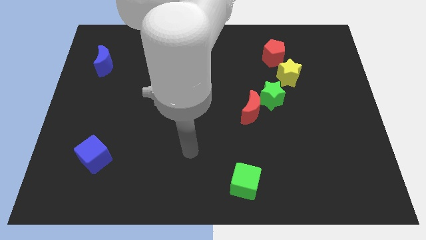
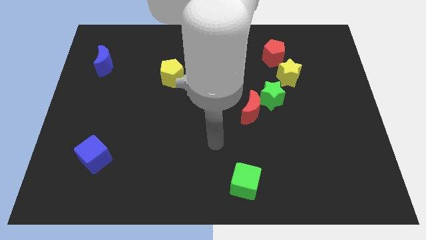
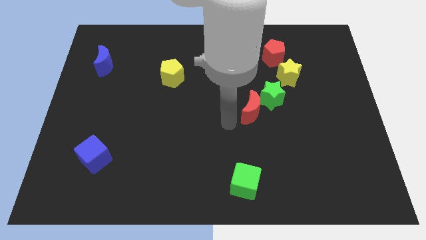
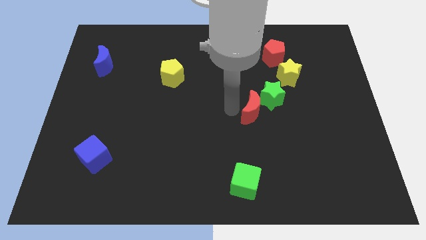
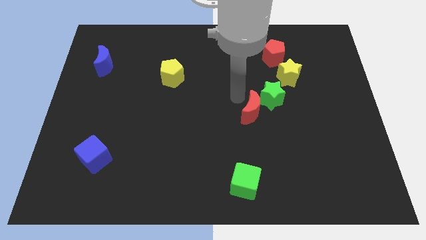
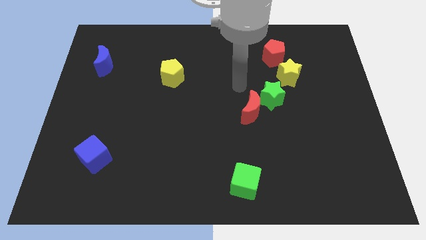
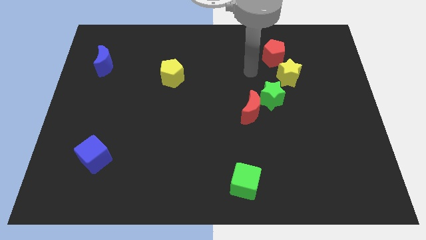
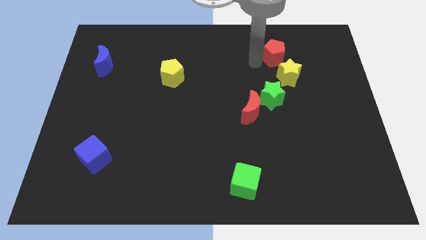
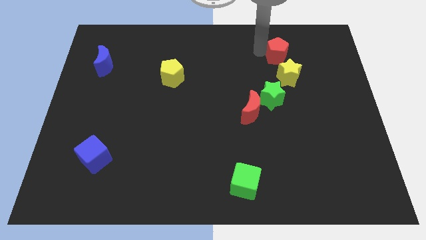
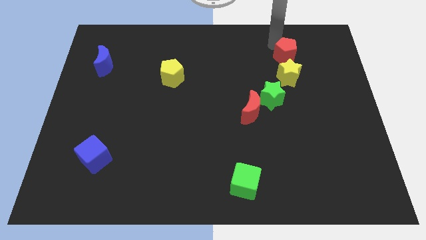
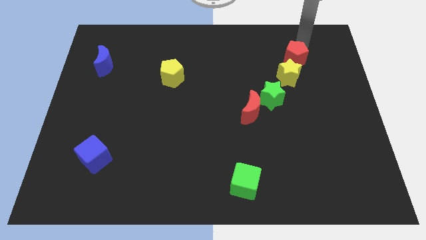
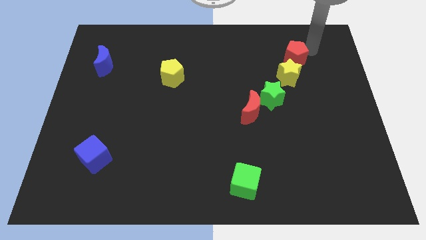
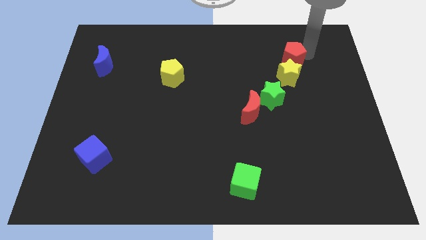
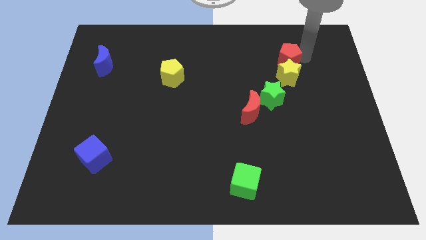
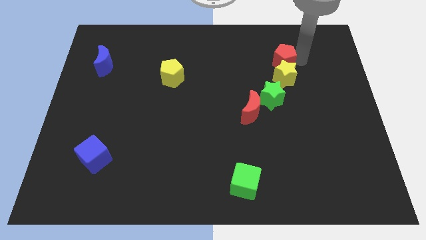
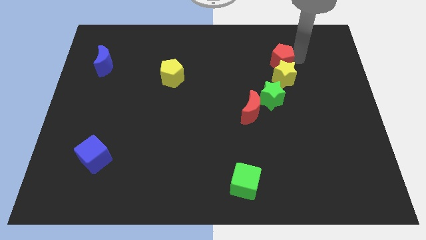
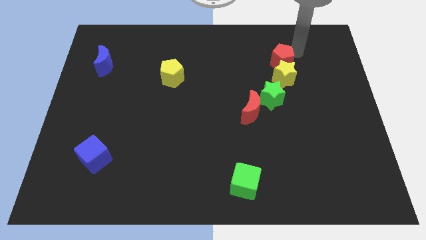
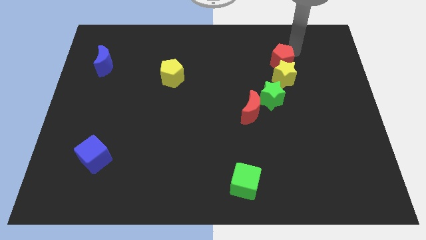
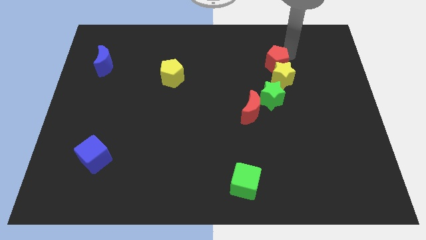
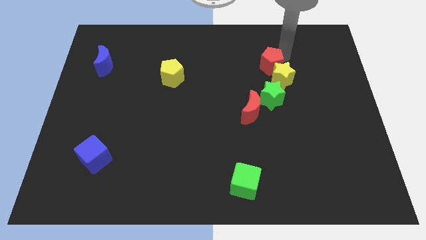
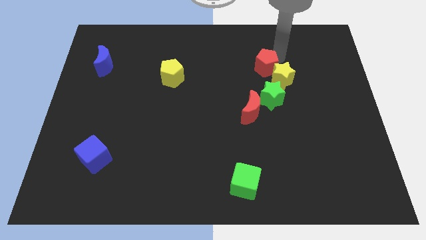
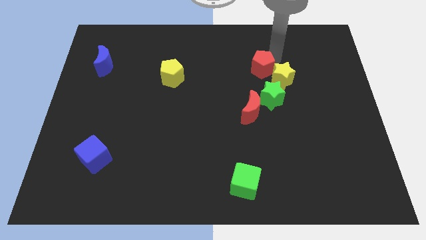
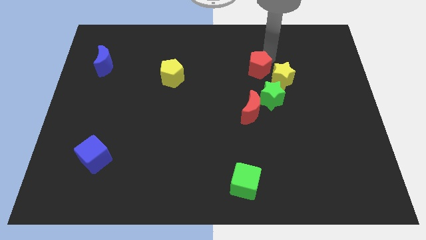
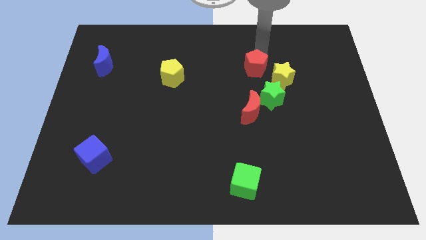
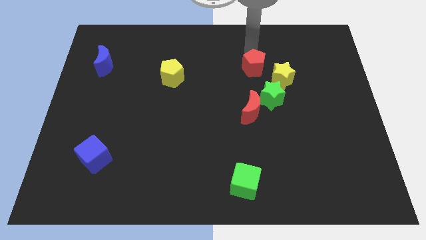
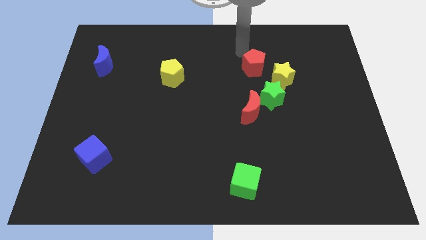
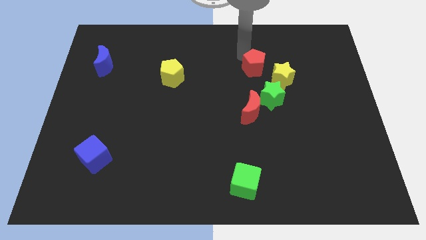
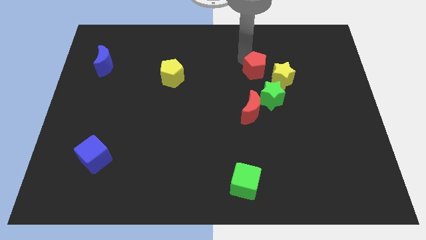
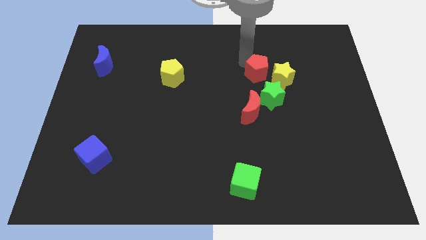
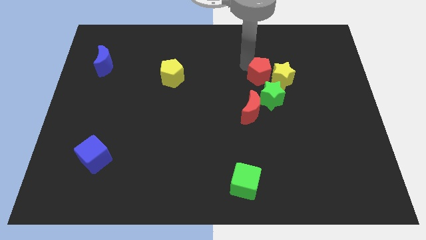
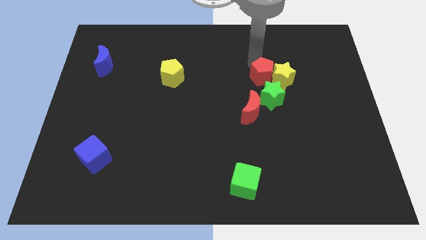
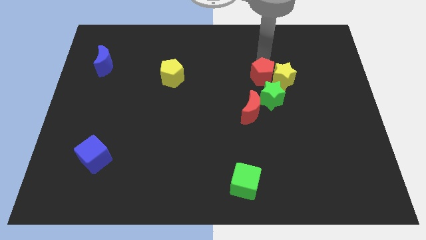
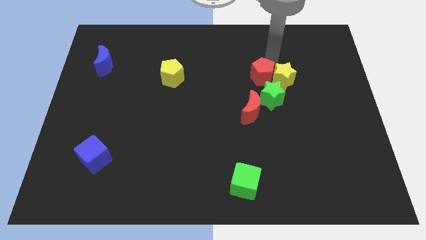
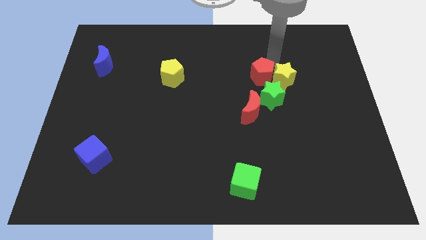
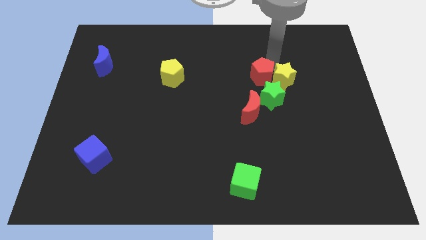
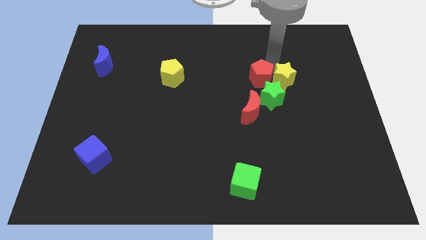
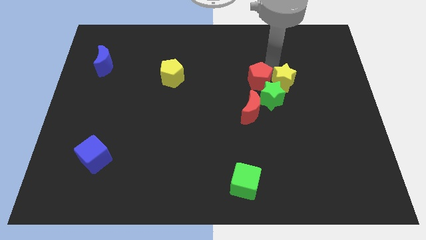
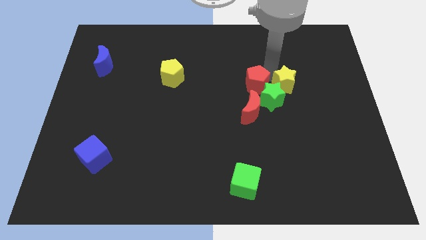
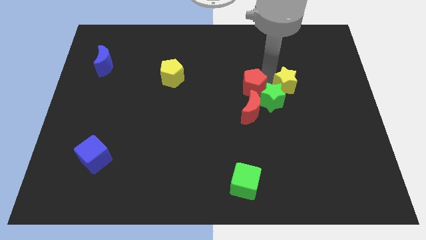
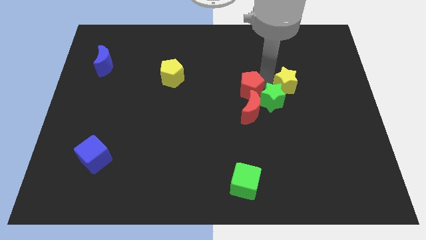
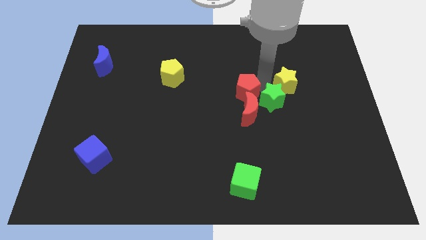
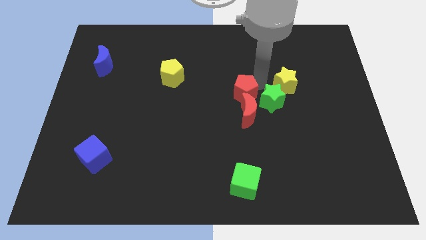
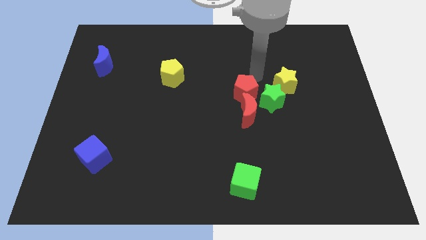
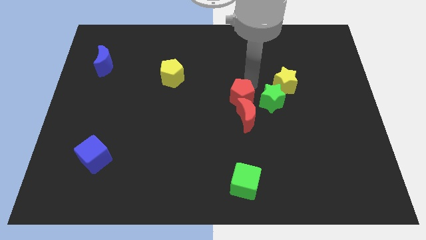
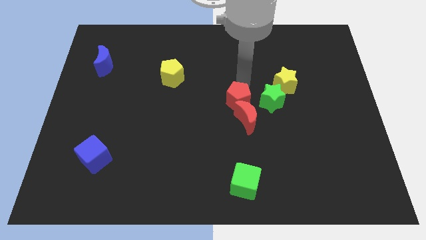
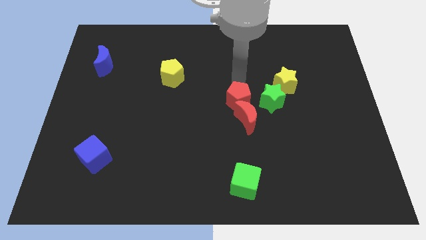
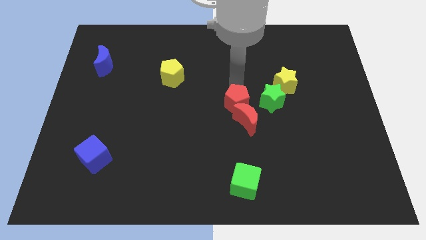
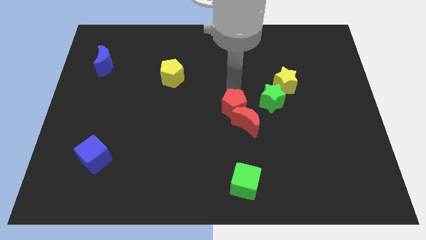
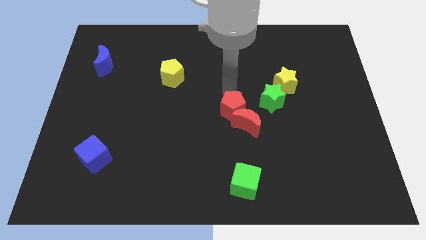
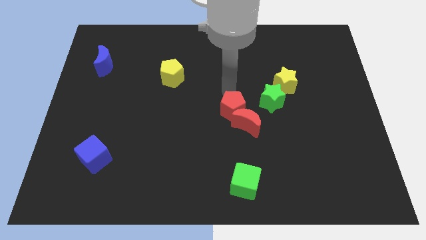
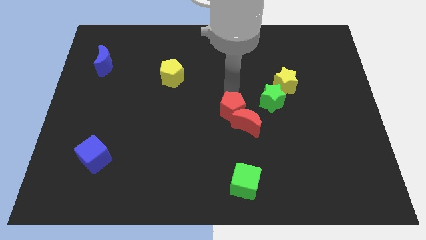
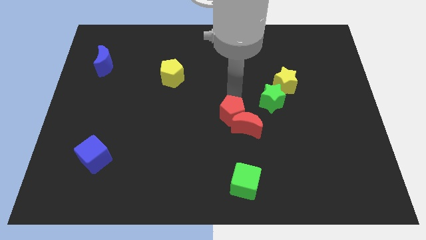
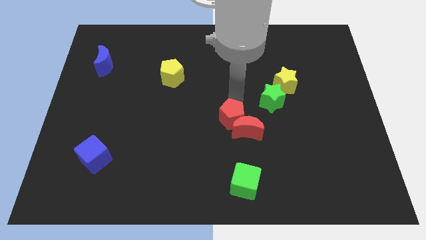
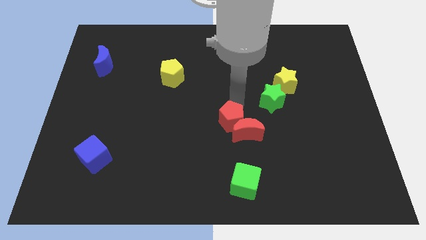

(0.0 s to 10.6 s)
push the red pentagon above the green cube

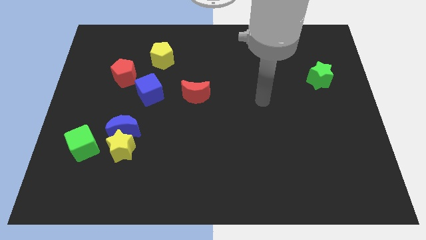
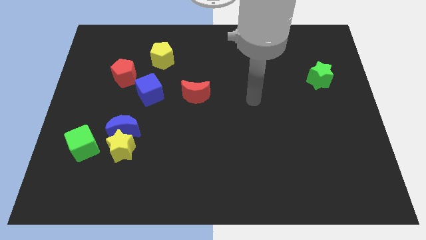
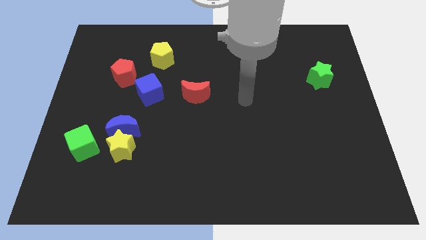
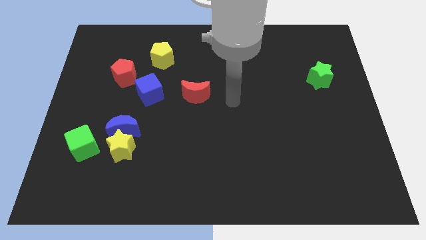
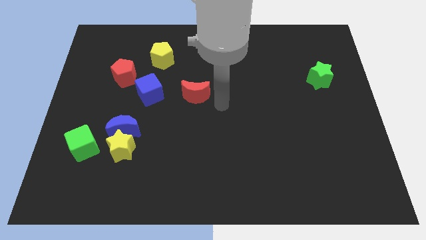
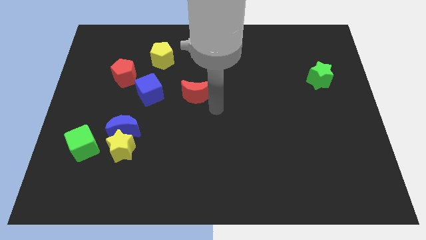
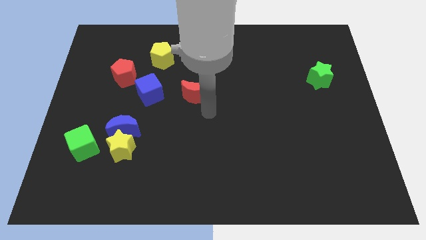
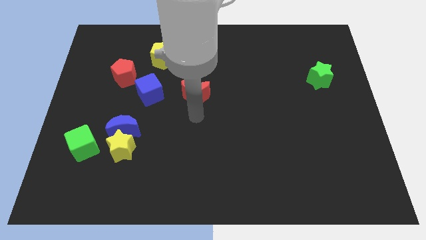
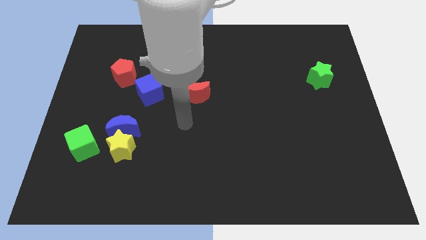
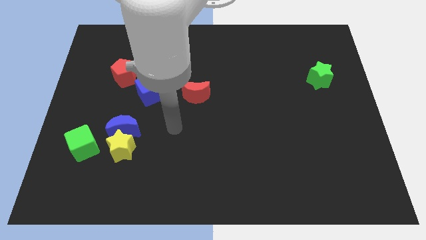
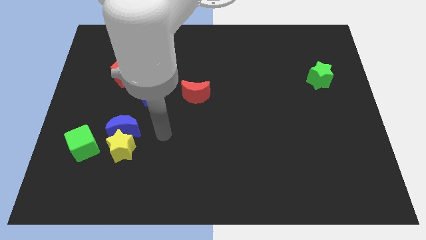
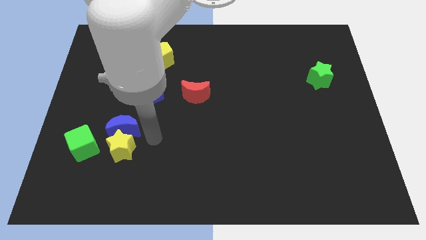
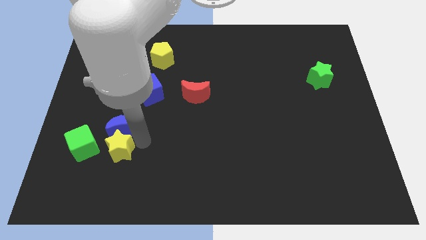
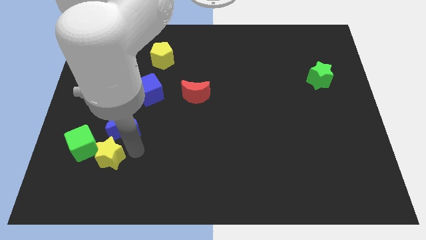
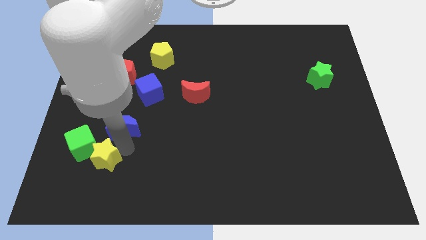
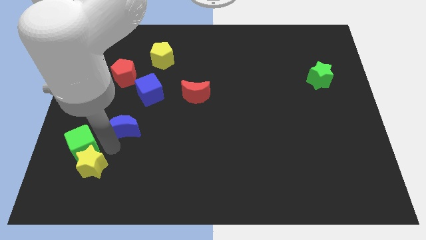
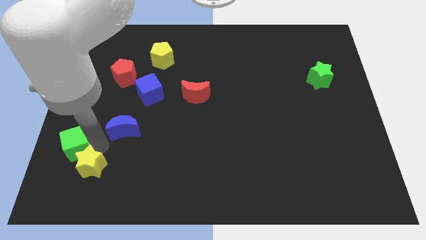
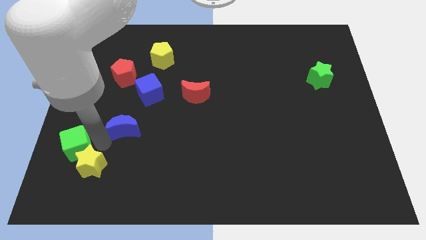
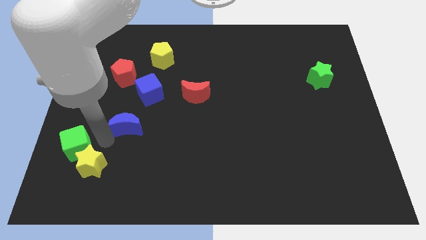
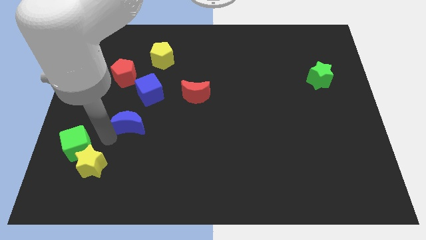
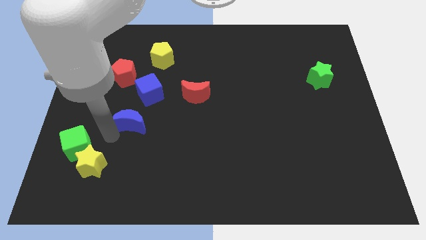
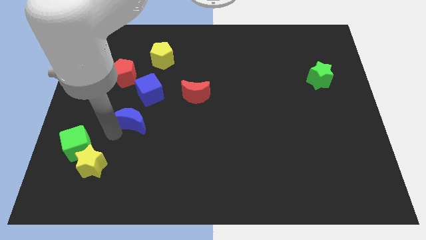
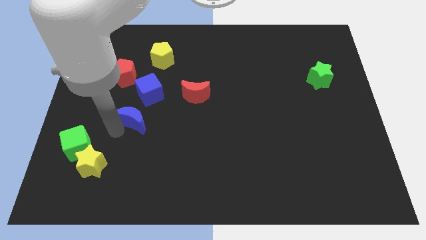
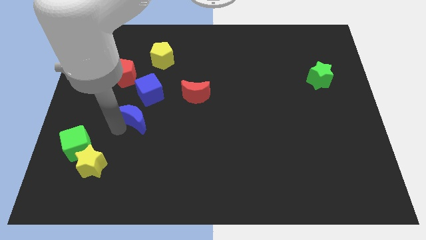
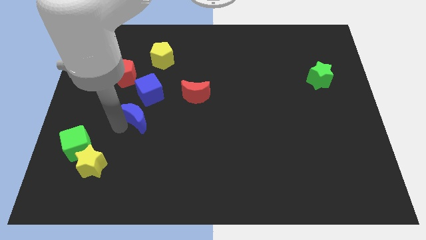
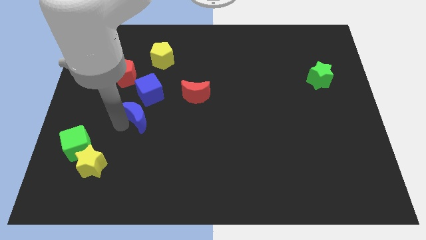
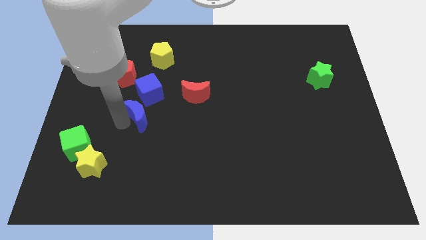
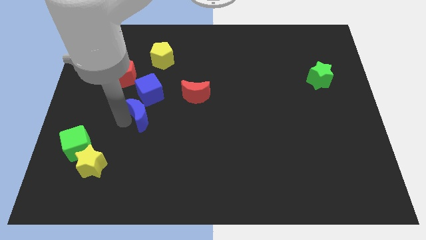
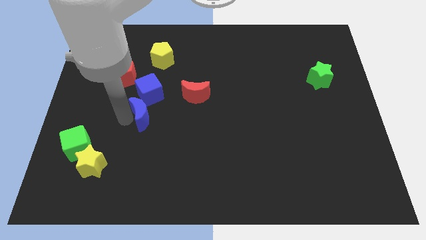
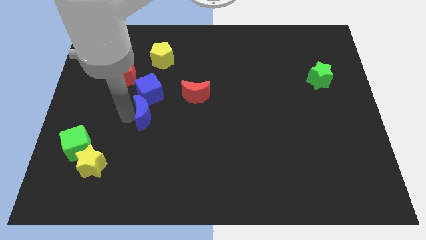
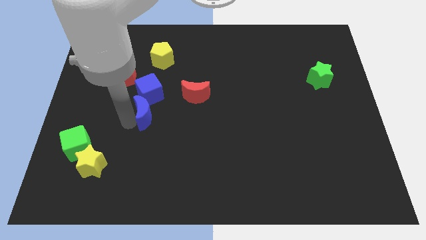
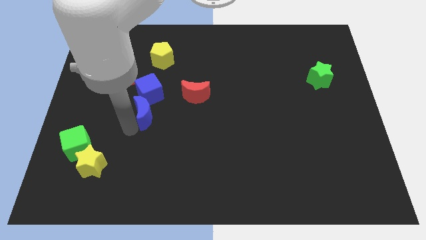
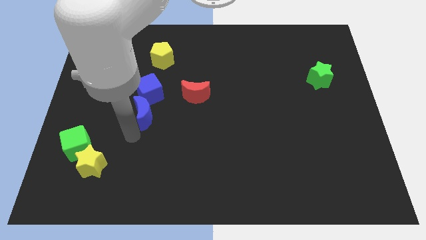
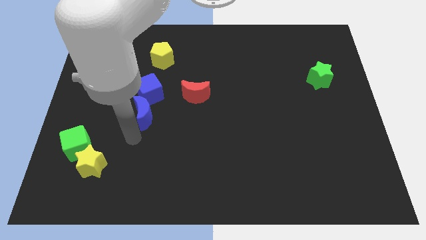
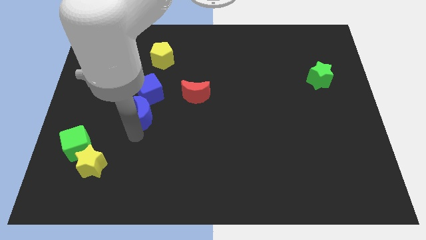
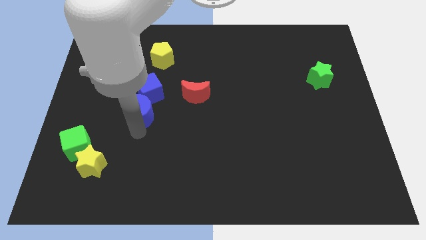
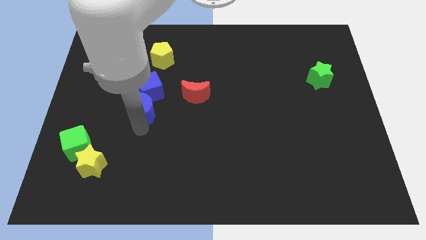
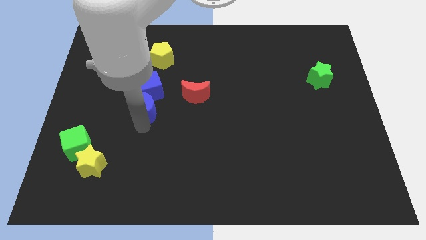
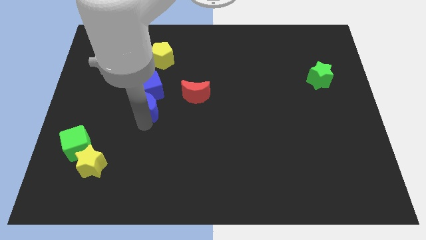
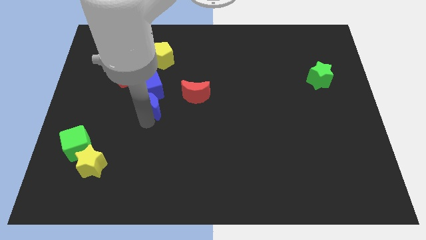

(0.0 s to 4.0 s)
slide the blue moon to the bottom side of the yellow pentagon
